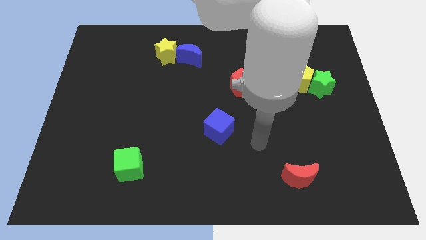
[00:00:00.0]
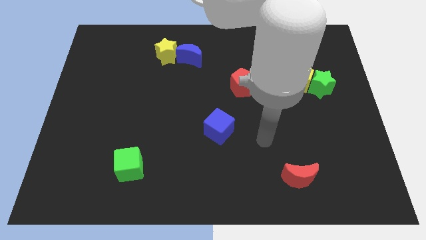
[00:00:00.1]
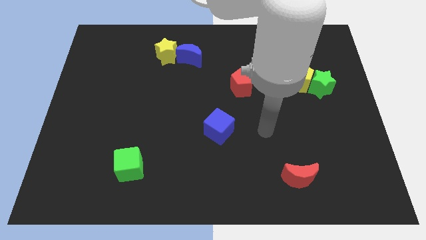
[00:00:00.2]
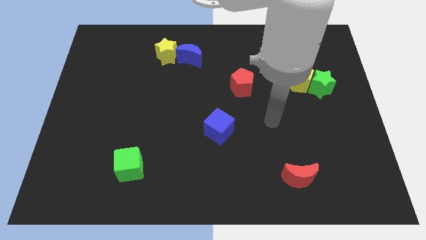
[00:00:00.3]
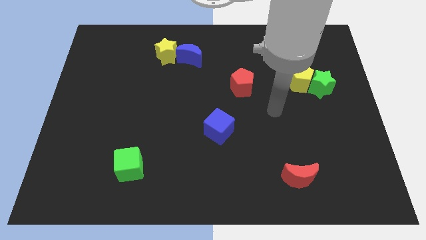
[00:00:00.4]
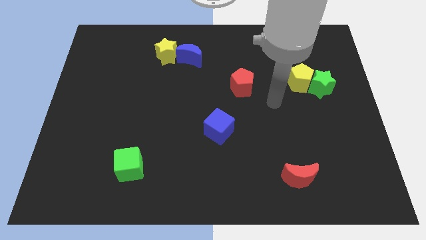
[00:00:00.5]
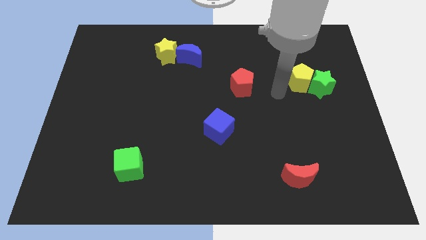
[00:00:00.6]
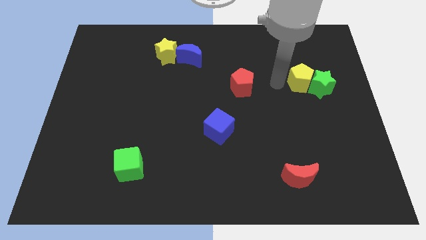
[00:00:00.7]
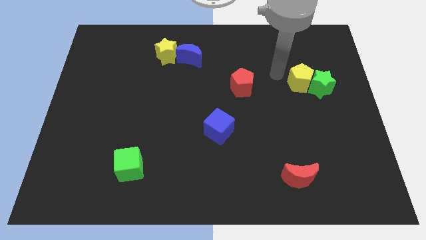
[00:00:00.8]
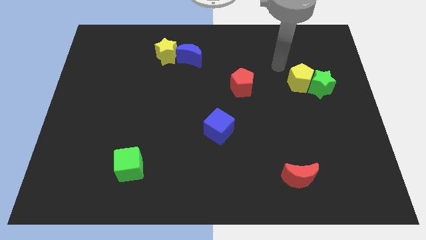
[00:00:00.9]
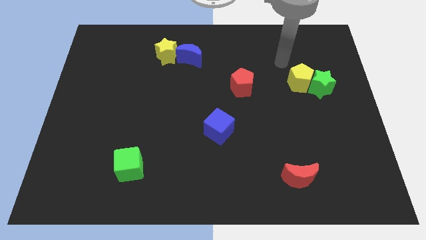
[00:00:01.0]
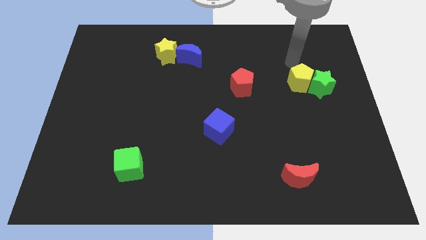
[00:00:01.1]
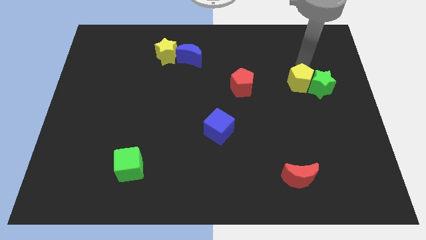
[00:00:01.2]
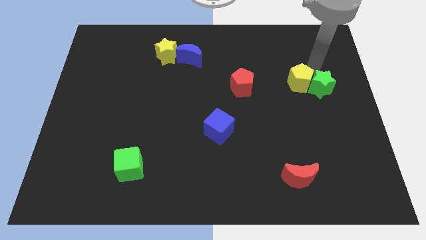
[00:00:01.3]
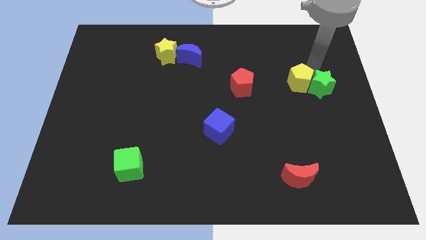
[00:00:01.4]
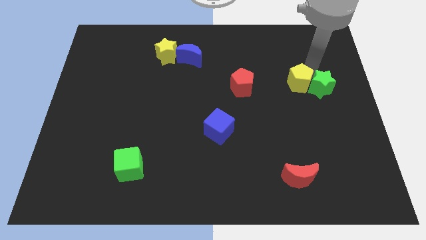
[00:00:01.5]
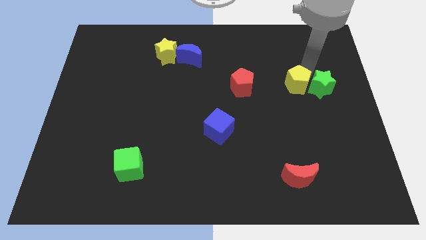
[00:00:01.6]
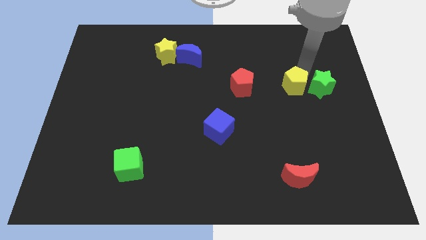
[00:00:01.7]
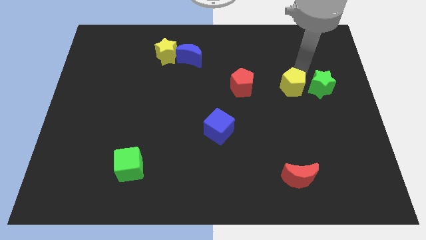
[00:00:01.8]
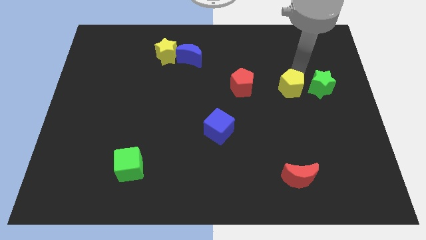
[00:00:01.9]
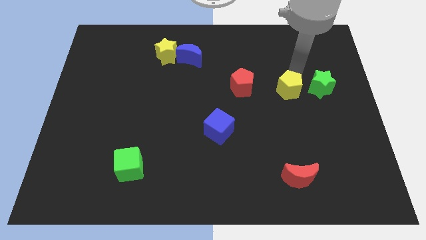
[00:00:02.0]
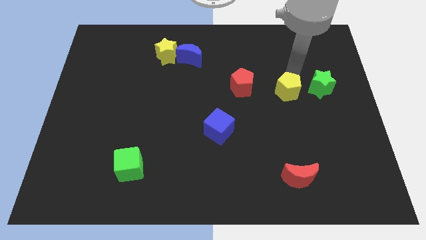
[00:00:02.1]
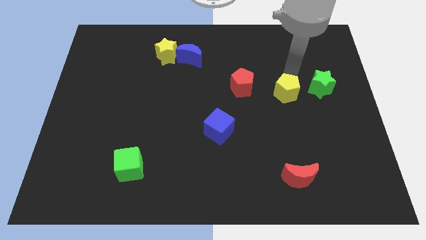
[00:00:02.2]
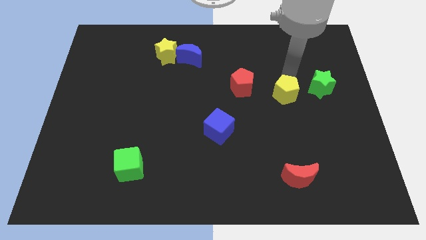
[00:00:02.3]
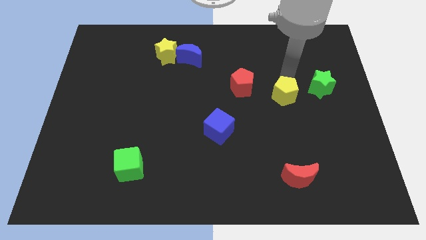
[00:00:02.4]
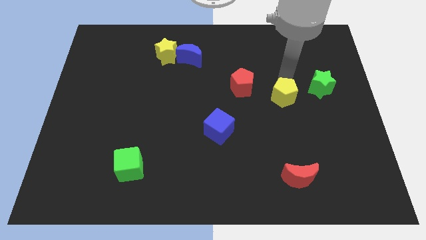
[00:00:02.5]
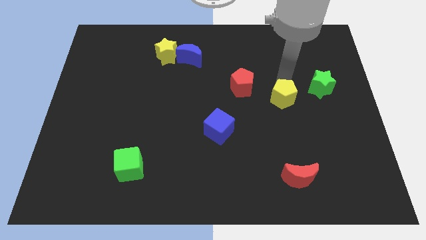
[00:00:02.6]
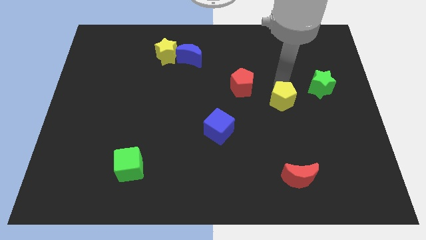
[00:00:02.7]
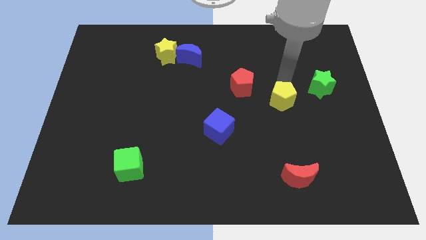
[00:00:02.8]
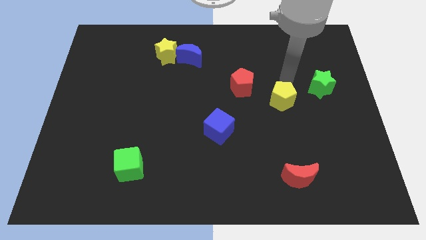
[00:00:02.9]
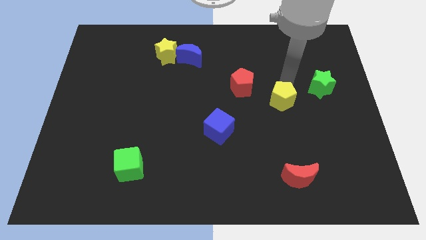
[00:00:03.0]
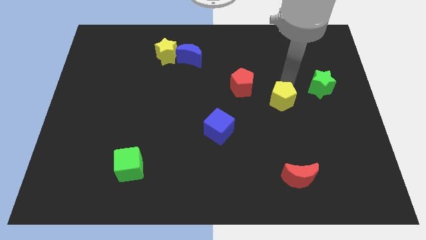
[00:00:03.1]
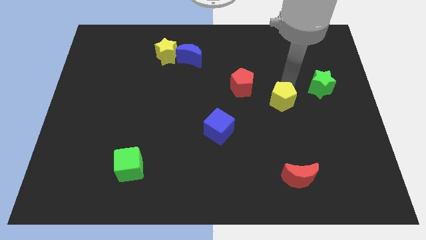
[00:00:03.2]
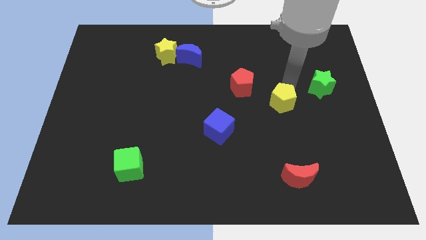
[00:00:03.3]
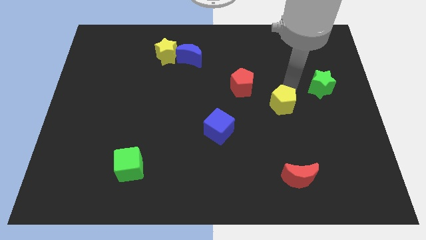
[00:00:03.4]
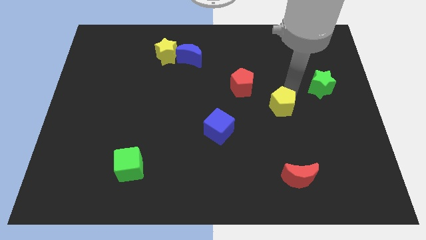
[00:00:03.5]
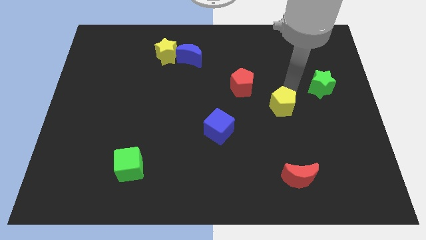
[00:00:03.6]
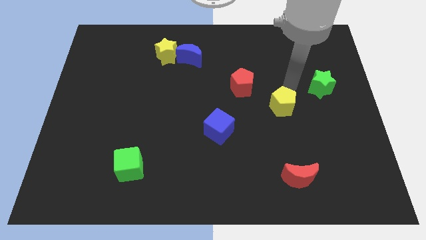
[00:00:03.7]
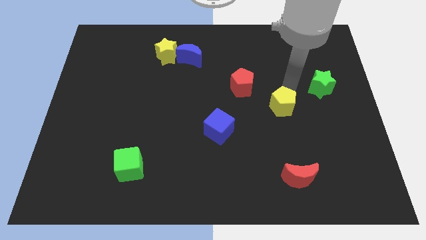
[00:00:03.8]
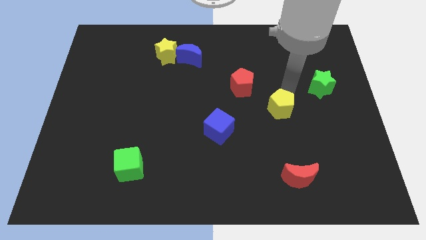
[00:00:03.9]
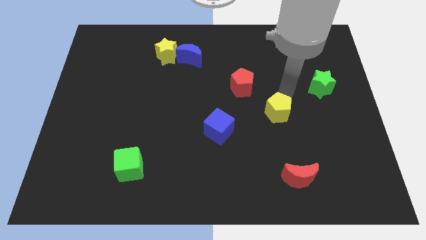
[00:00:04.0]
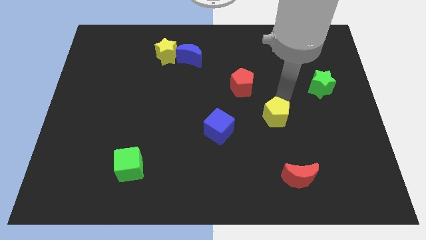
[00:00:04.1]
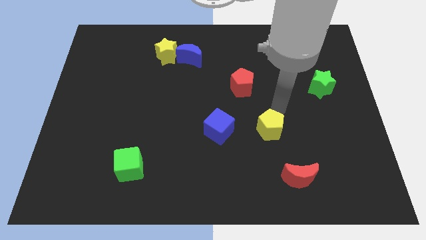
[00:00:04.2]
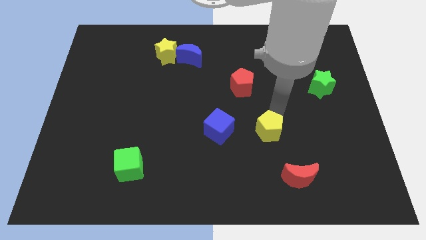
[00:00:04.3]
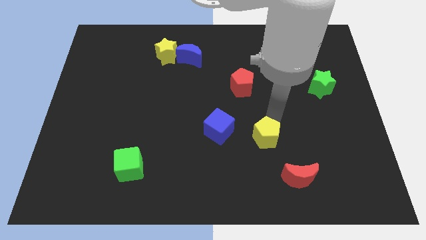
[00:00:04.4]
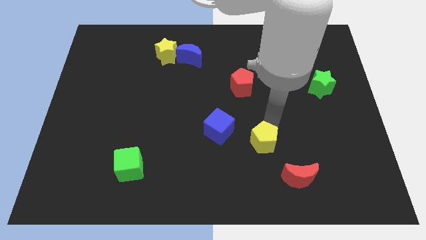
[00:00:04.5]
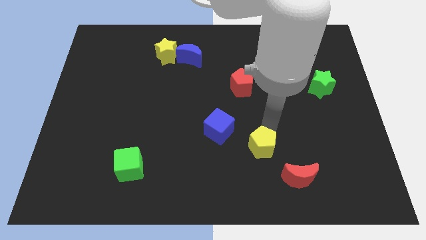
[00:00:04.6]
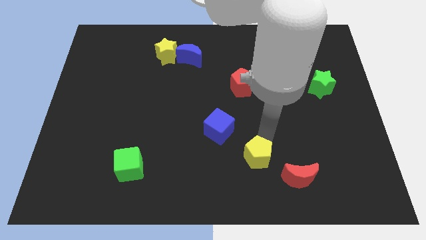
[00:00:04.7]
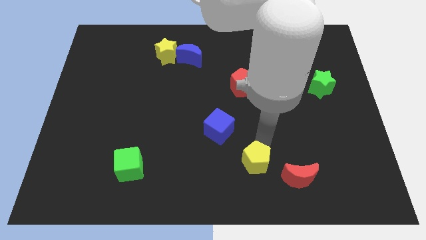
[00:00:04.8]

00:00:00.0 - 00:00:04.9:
slide the yellow pentagon to the left side of the red moon

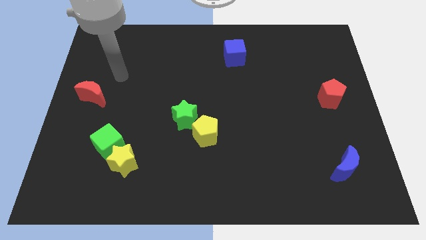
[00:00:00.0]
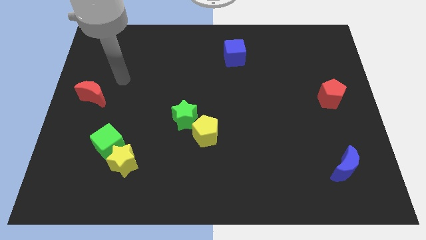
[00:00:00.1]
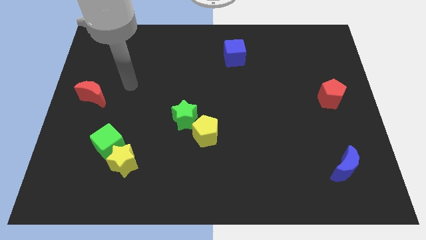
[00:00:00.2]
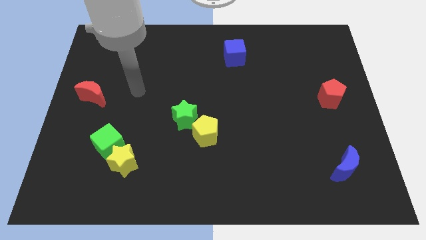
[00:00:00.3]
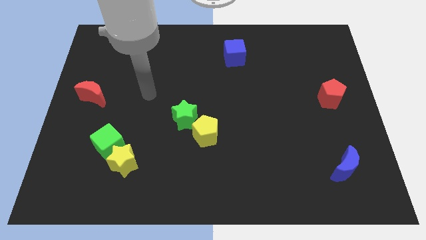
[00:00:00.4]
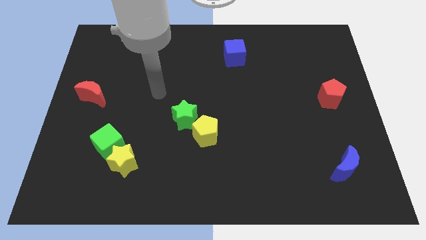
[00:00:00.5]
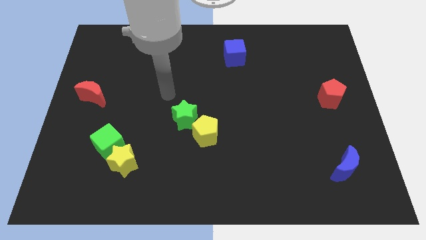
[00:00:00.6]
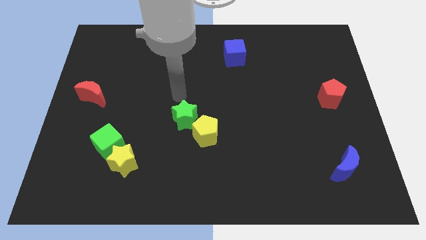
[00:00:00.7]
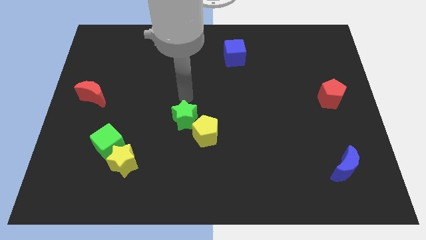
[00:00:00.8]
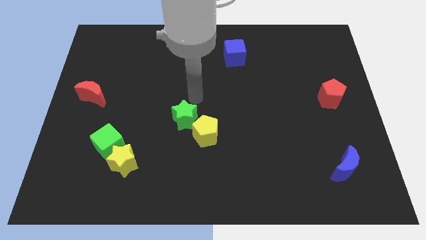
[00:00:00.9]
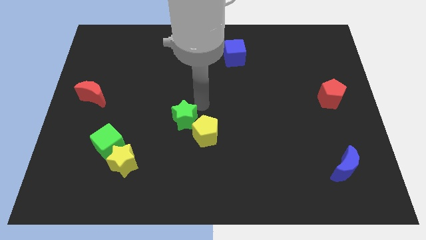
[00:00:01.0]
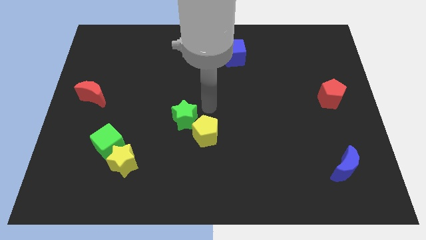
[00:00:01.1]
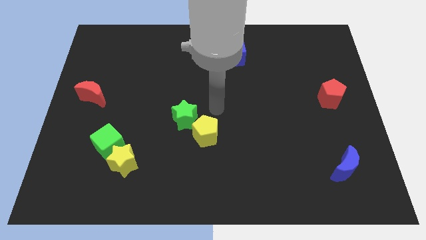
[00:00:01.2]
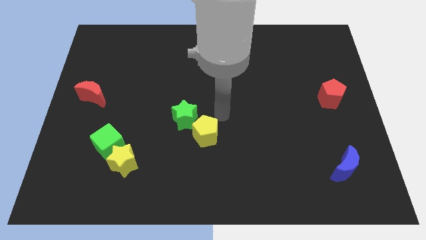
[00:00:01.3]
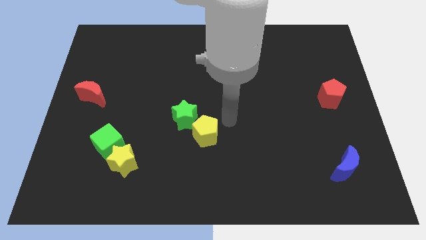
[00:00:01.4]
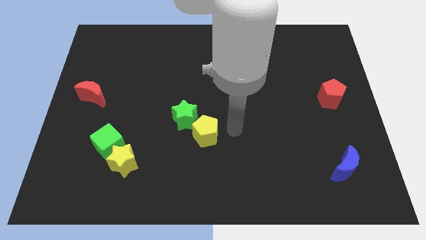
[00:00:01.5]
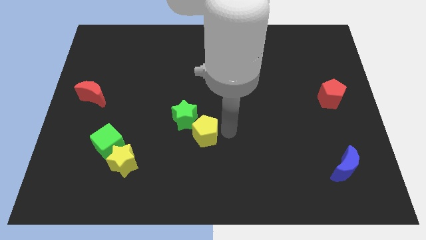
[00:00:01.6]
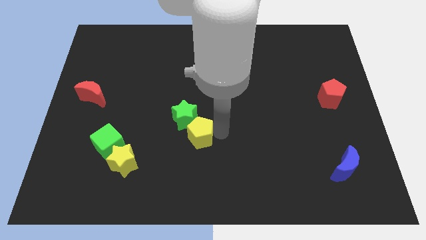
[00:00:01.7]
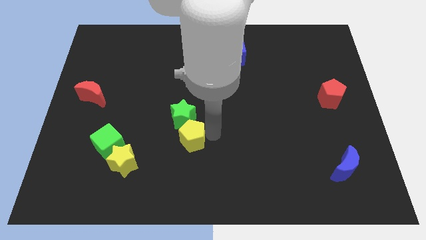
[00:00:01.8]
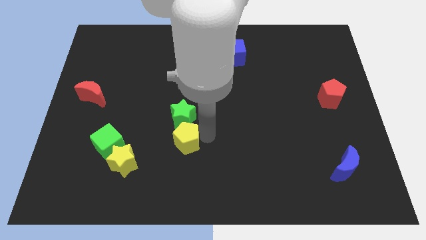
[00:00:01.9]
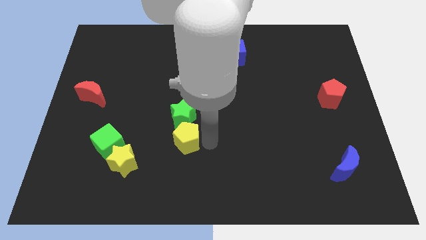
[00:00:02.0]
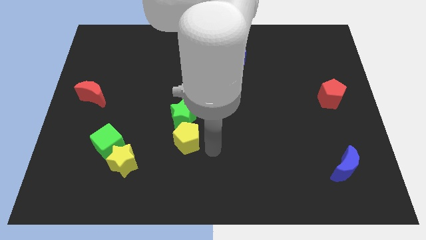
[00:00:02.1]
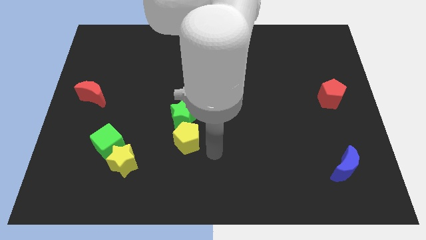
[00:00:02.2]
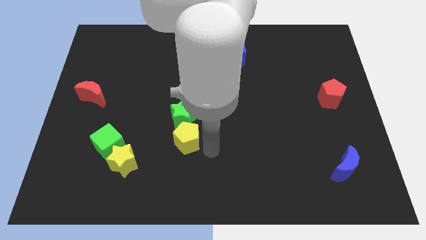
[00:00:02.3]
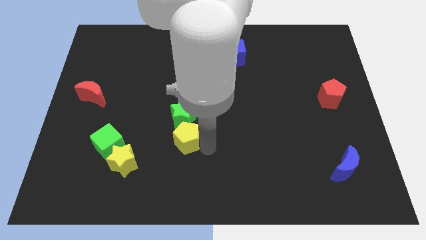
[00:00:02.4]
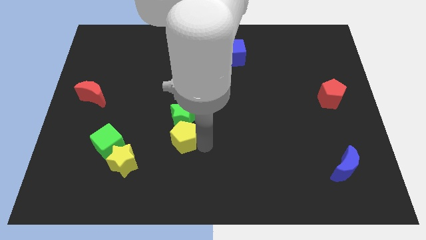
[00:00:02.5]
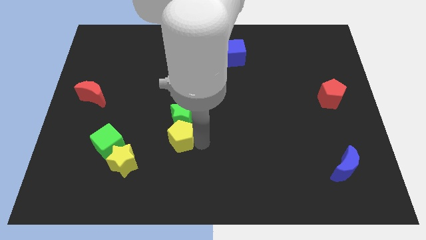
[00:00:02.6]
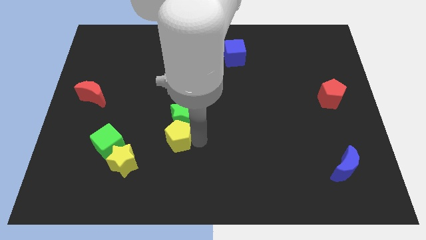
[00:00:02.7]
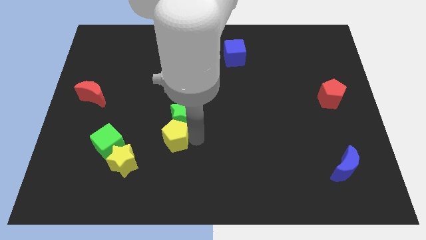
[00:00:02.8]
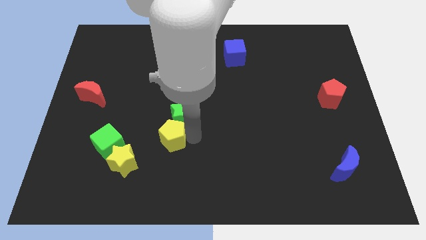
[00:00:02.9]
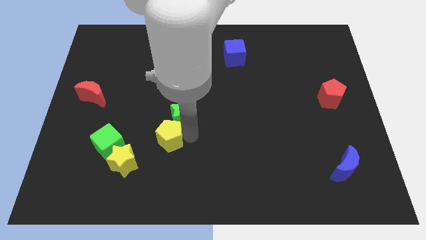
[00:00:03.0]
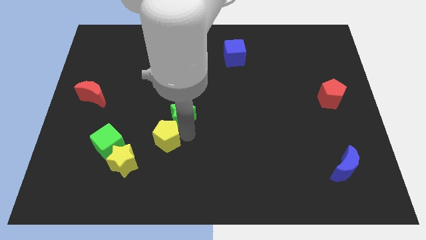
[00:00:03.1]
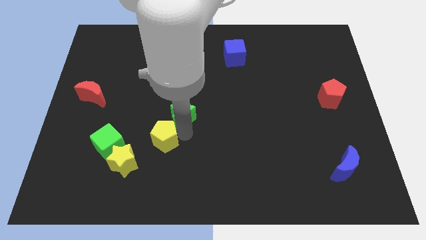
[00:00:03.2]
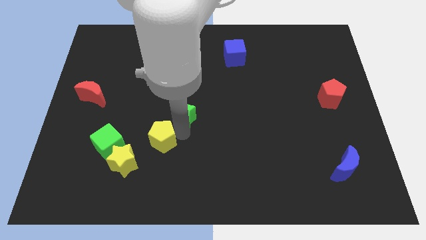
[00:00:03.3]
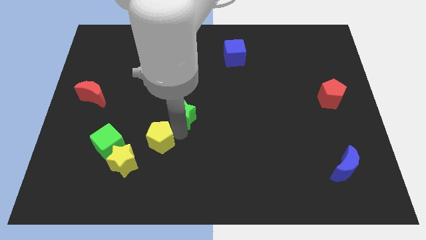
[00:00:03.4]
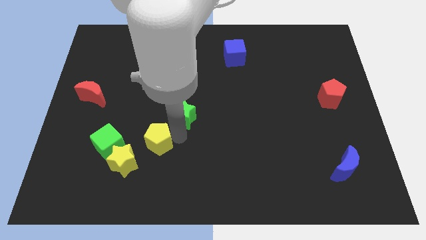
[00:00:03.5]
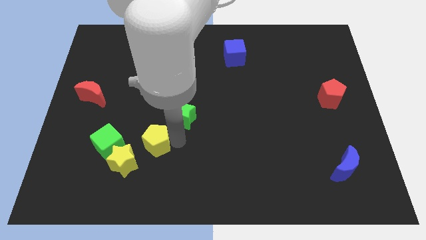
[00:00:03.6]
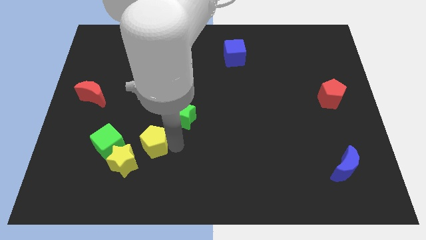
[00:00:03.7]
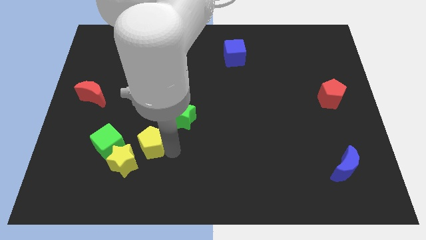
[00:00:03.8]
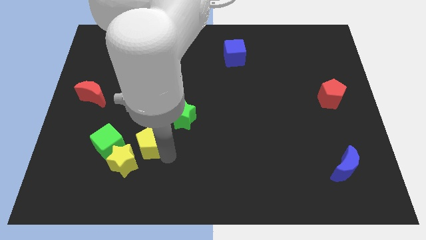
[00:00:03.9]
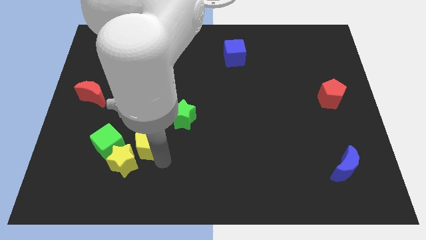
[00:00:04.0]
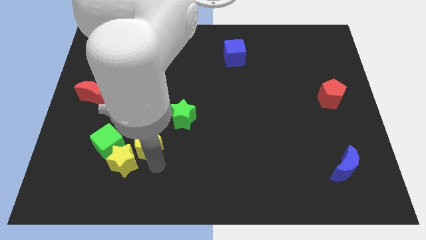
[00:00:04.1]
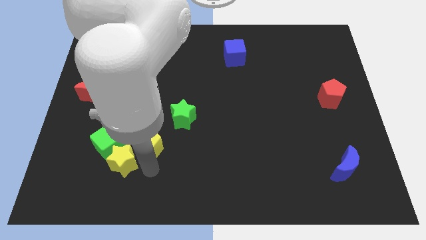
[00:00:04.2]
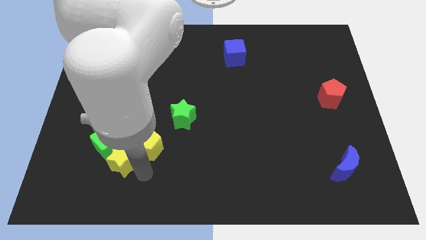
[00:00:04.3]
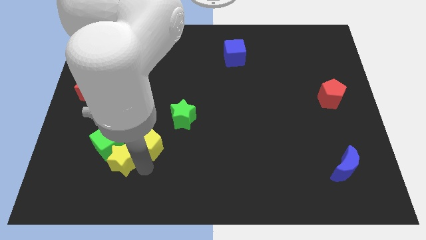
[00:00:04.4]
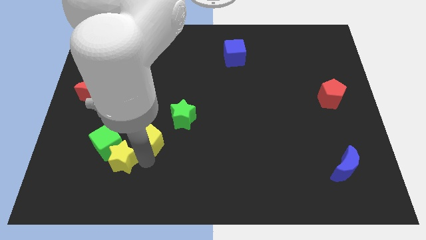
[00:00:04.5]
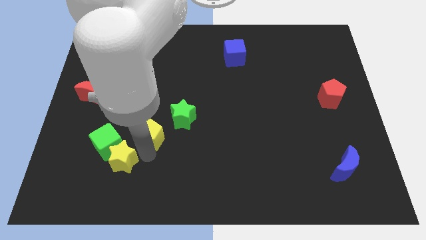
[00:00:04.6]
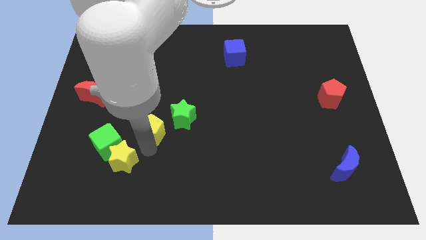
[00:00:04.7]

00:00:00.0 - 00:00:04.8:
move the yellow pentagon to the left of the green star
